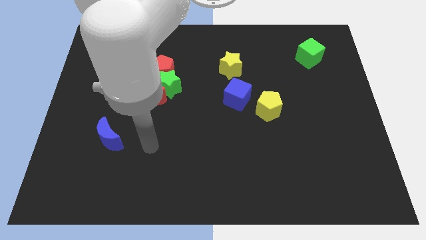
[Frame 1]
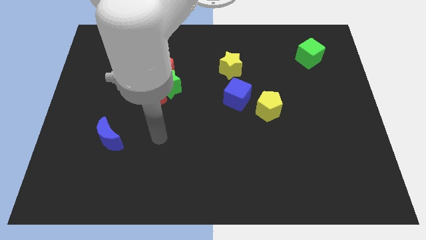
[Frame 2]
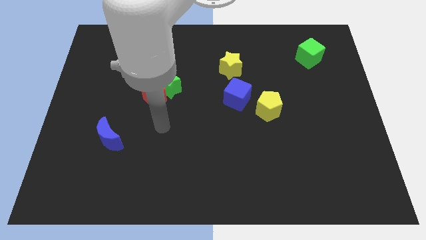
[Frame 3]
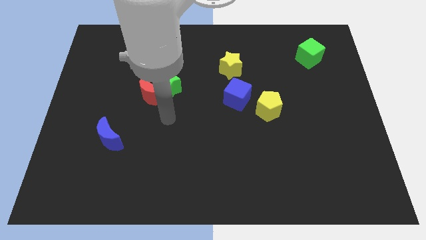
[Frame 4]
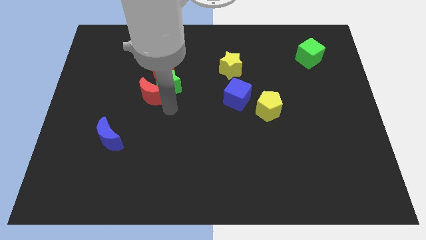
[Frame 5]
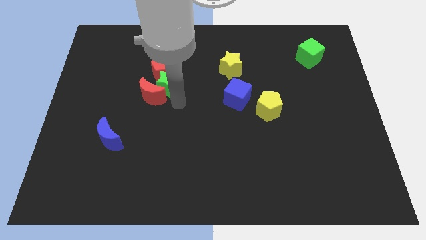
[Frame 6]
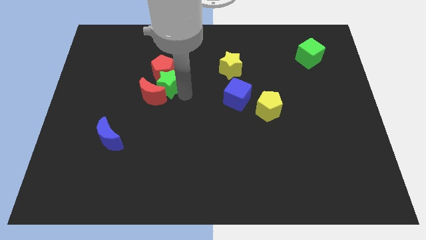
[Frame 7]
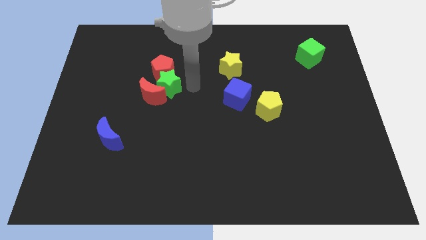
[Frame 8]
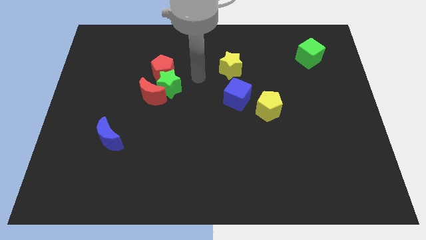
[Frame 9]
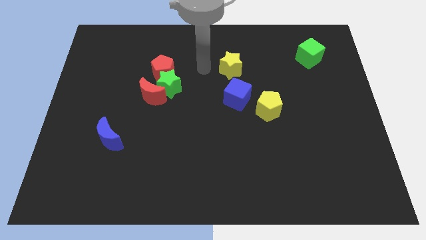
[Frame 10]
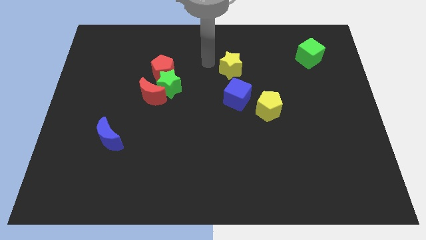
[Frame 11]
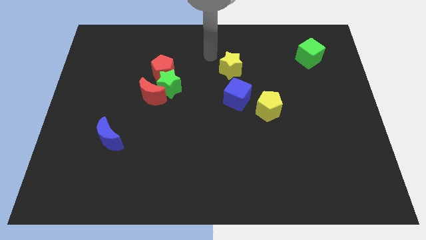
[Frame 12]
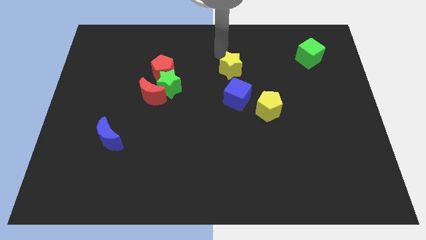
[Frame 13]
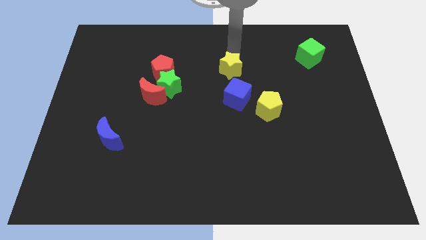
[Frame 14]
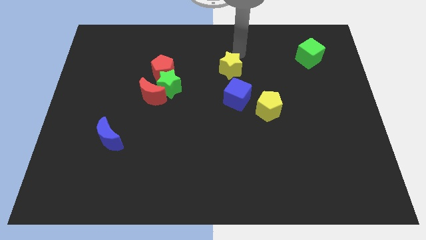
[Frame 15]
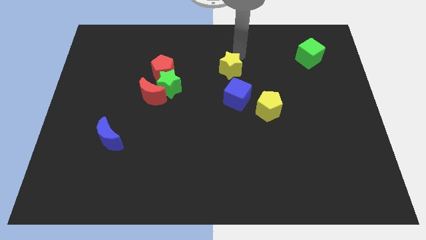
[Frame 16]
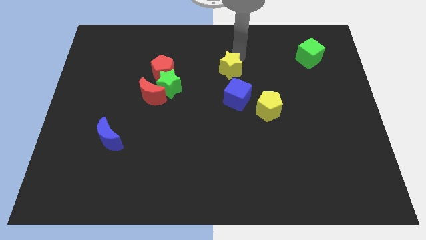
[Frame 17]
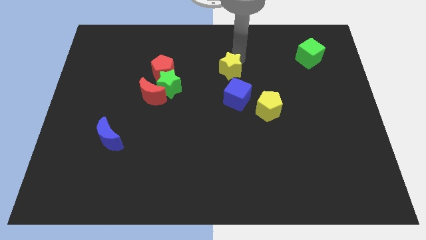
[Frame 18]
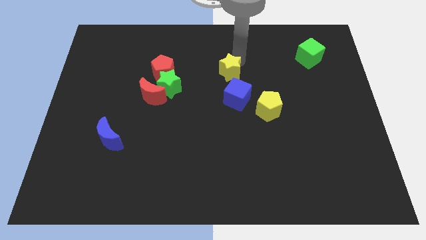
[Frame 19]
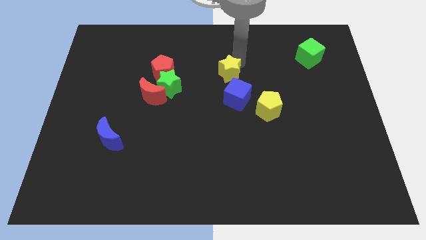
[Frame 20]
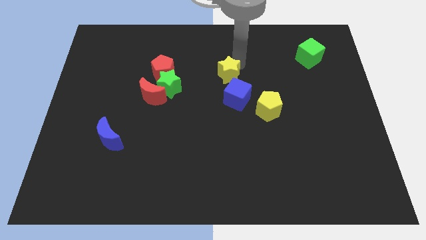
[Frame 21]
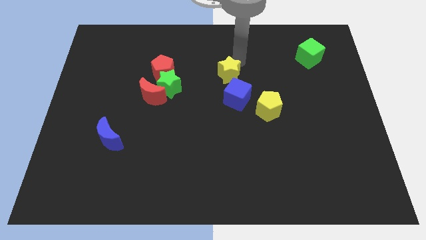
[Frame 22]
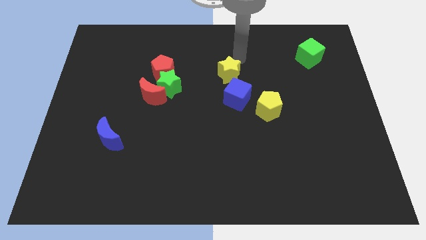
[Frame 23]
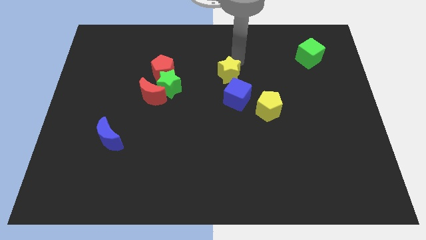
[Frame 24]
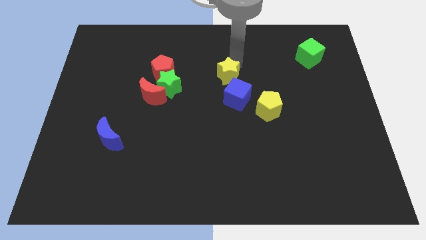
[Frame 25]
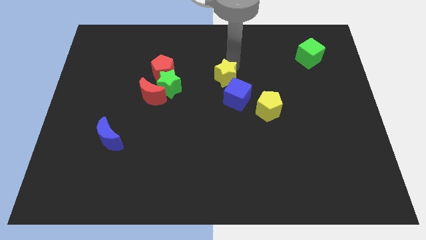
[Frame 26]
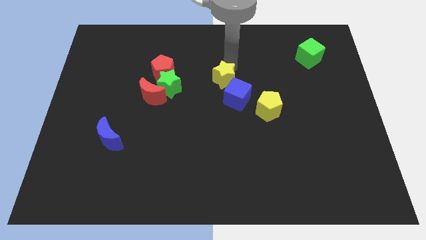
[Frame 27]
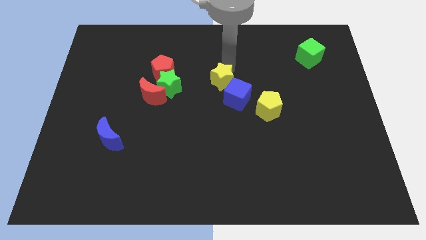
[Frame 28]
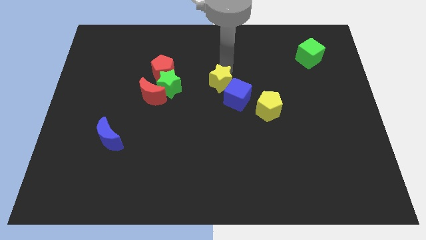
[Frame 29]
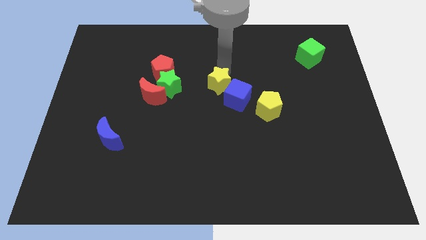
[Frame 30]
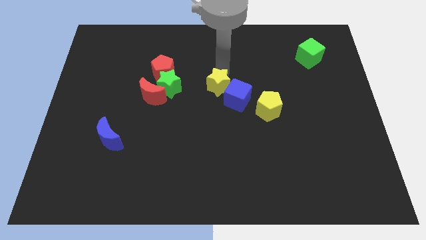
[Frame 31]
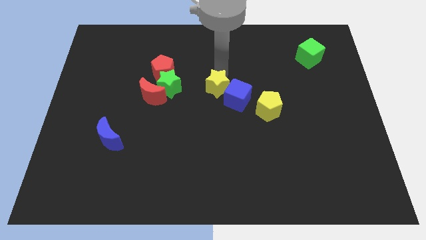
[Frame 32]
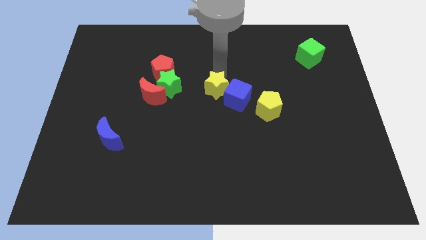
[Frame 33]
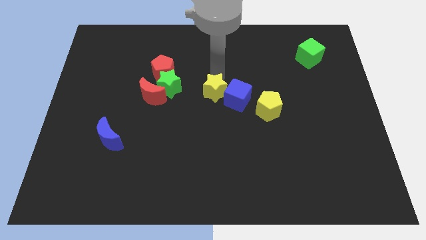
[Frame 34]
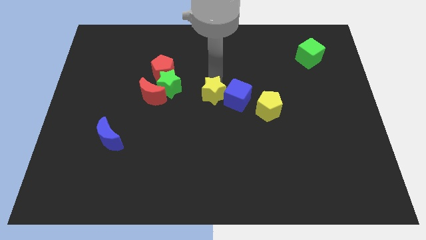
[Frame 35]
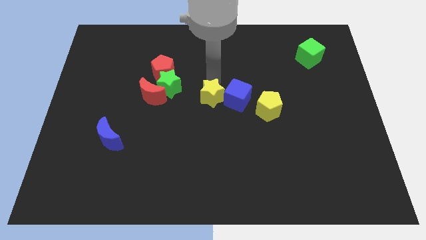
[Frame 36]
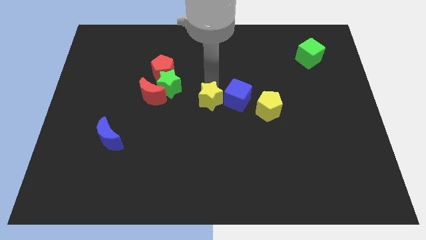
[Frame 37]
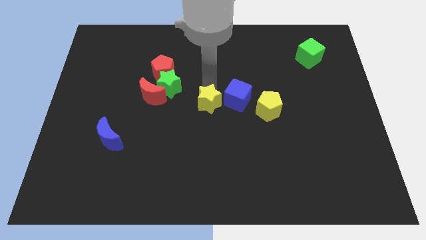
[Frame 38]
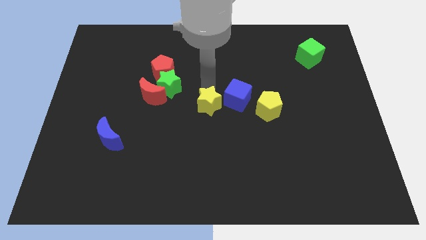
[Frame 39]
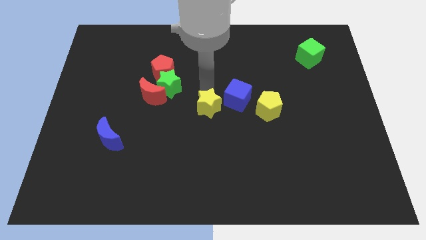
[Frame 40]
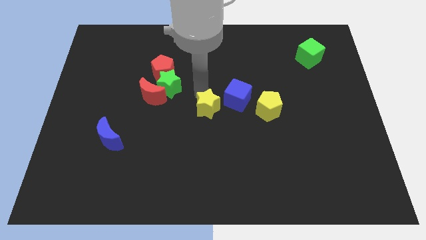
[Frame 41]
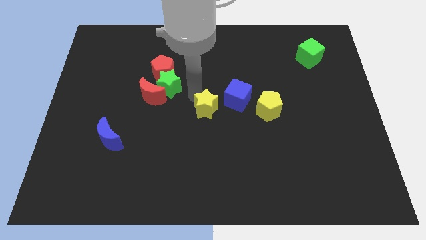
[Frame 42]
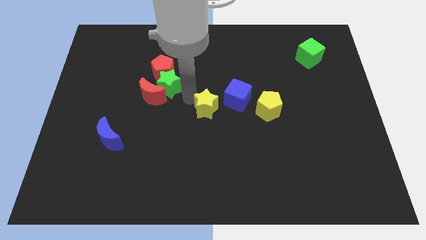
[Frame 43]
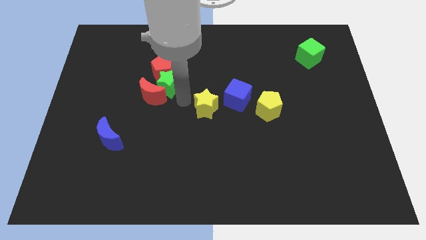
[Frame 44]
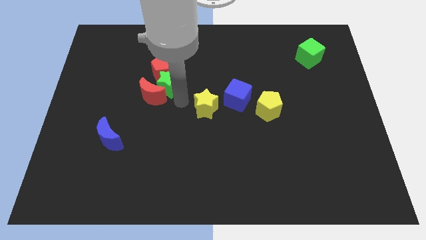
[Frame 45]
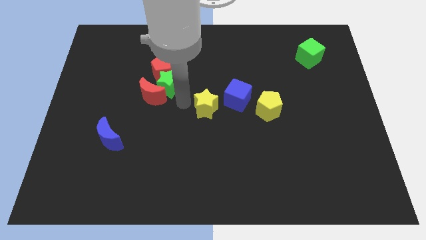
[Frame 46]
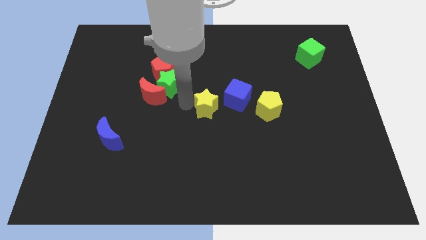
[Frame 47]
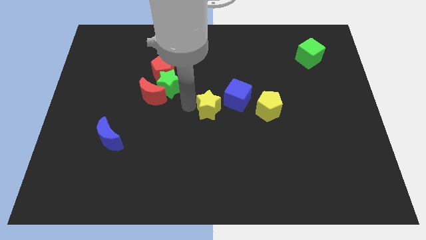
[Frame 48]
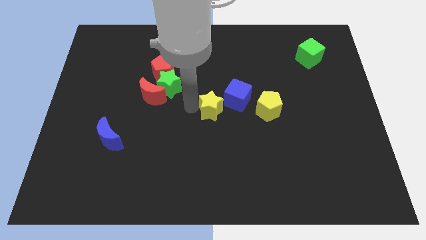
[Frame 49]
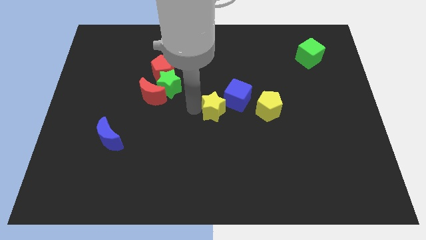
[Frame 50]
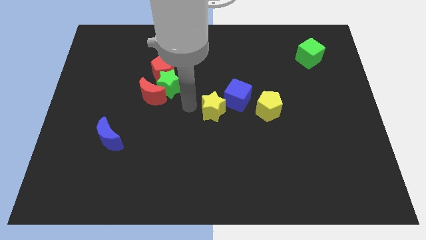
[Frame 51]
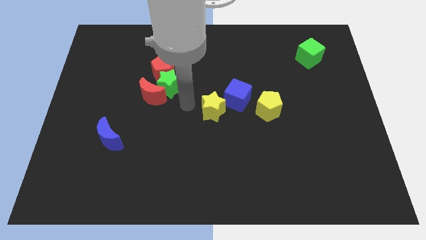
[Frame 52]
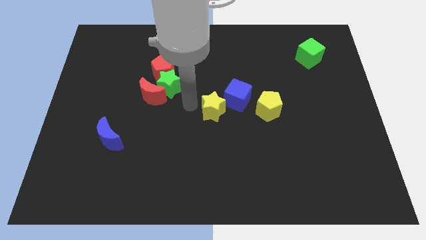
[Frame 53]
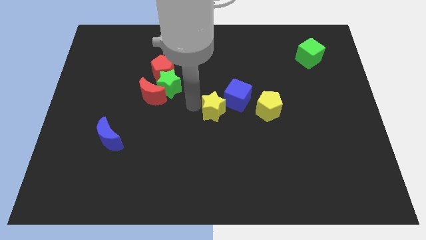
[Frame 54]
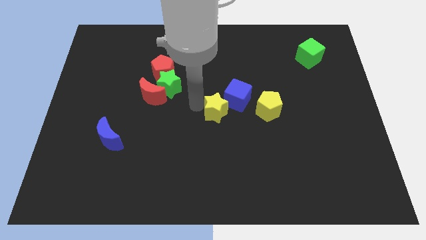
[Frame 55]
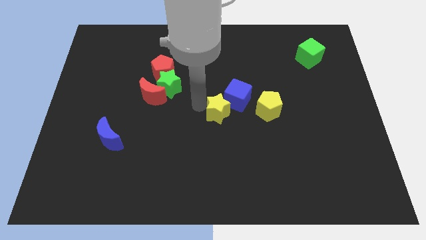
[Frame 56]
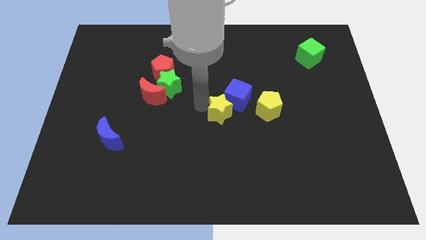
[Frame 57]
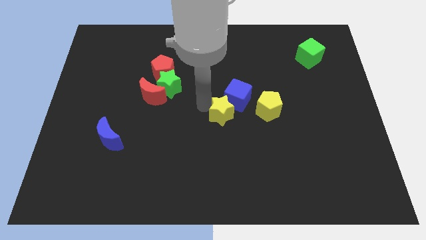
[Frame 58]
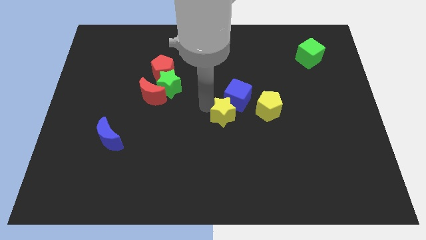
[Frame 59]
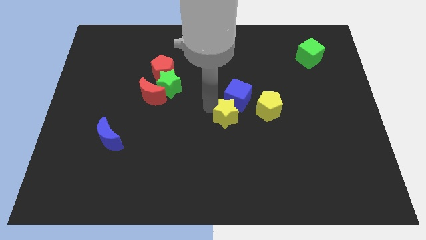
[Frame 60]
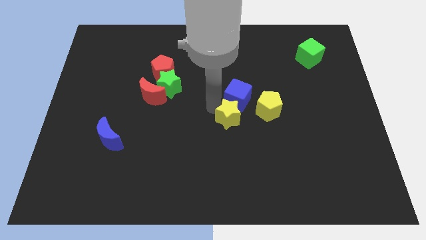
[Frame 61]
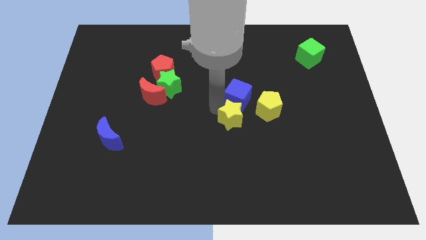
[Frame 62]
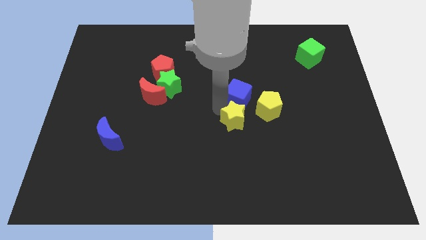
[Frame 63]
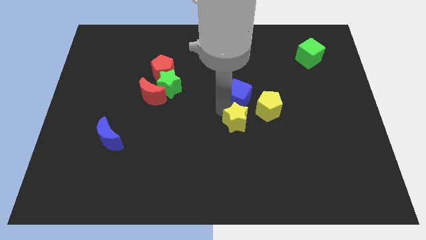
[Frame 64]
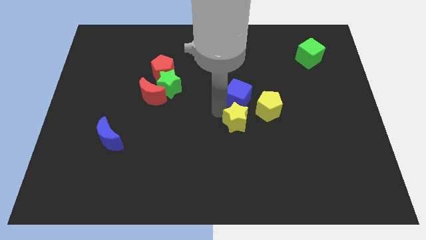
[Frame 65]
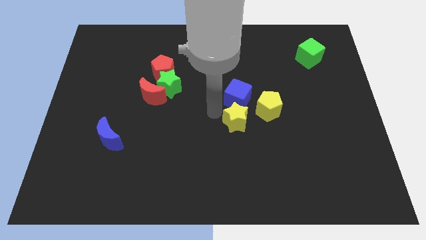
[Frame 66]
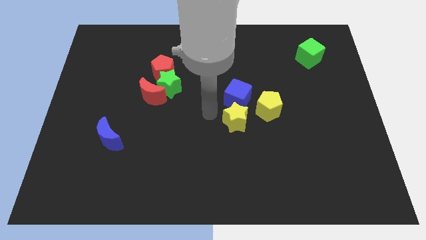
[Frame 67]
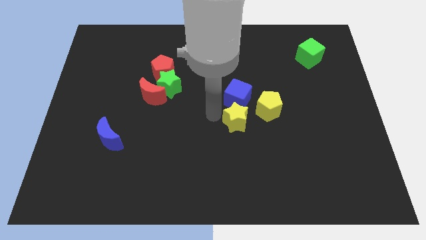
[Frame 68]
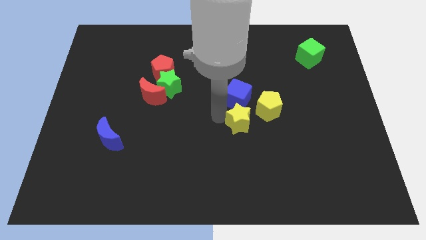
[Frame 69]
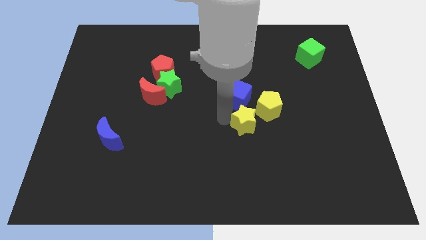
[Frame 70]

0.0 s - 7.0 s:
move the yellow star to the bottom right of the blue cube
